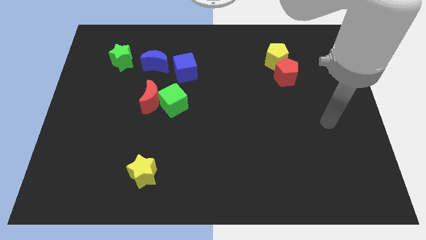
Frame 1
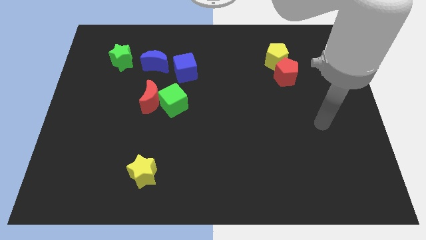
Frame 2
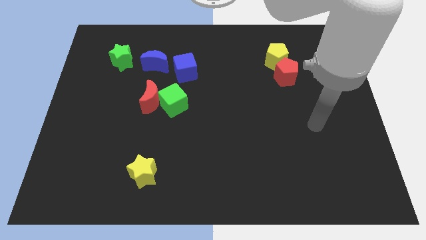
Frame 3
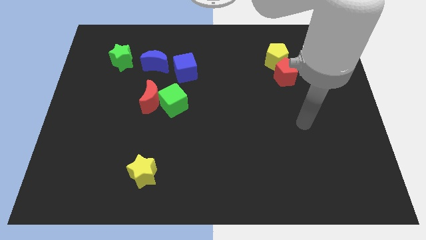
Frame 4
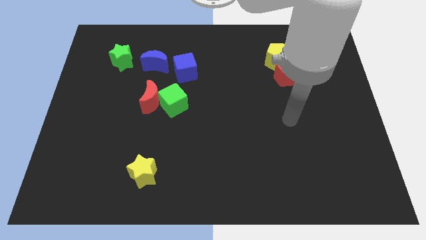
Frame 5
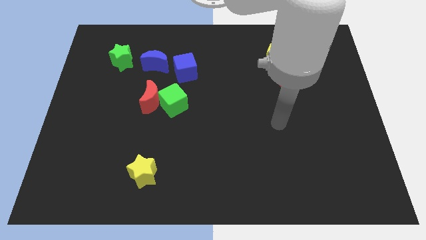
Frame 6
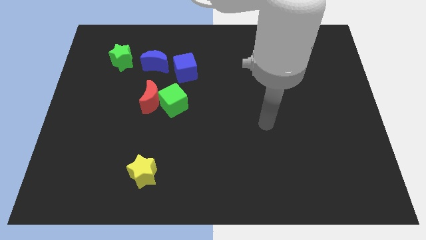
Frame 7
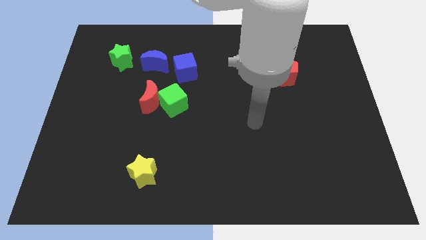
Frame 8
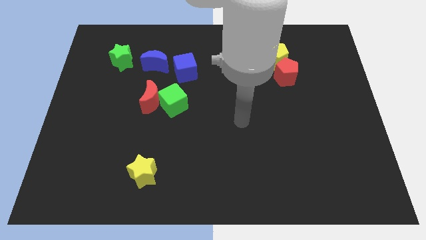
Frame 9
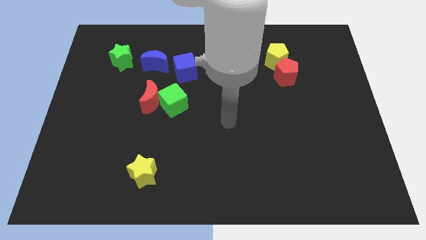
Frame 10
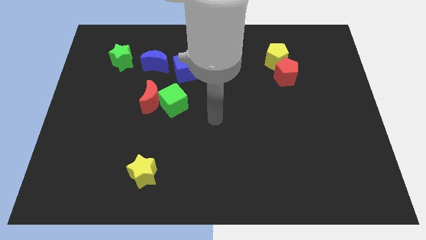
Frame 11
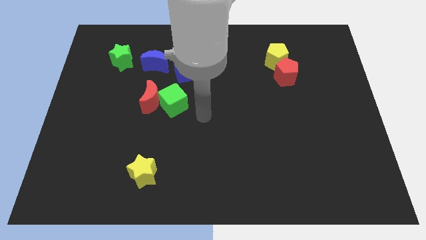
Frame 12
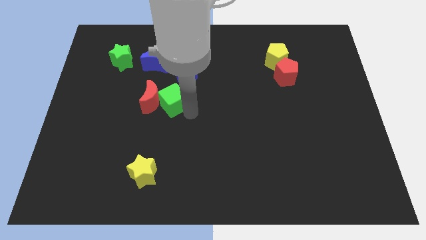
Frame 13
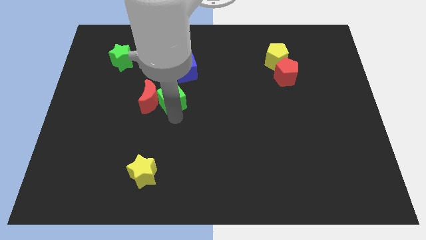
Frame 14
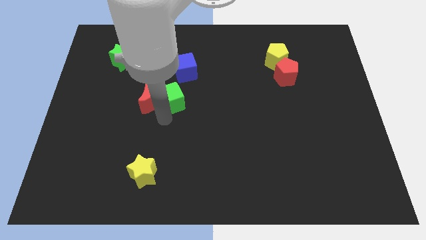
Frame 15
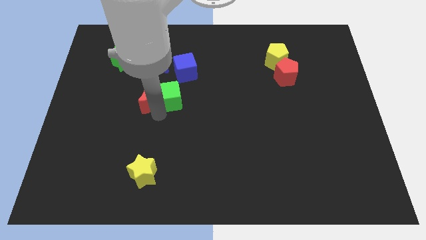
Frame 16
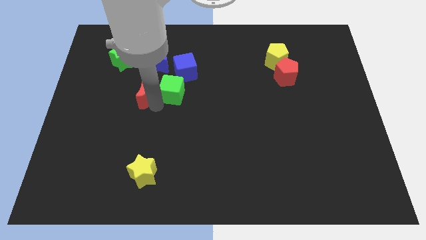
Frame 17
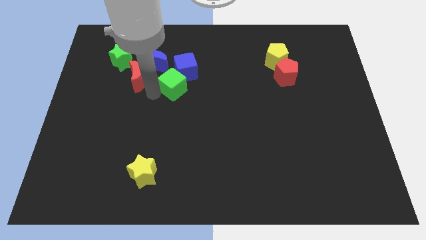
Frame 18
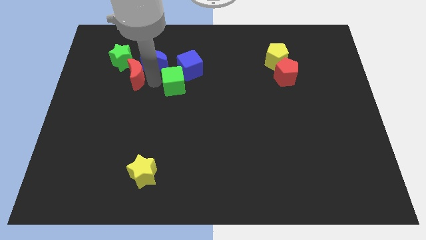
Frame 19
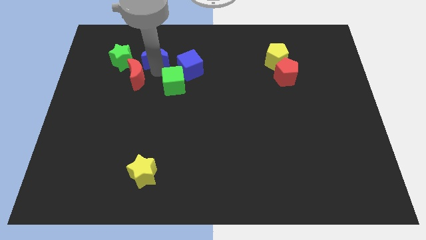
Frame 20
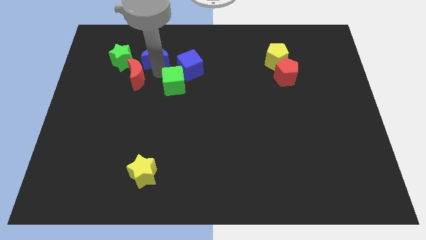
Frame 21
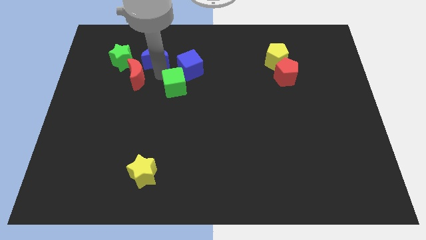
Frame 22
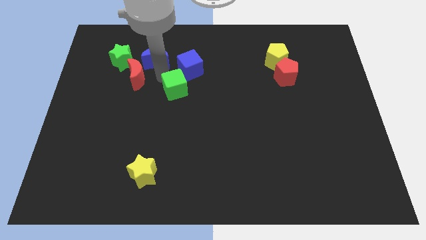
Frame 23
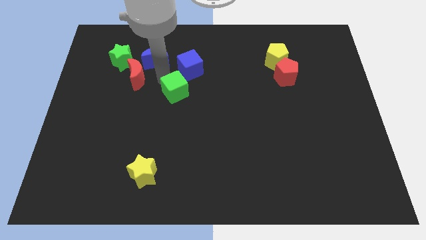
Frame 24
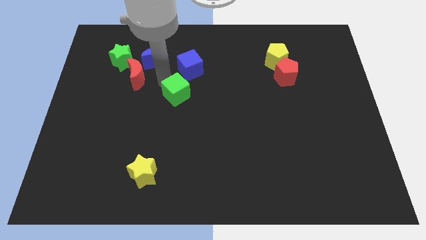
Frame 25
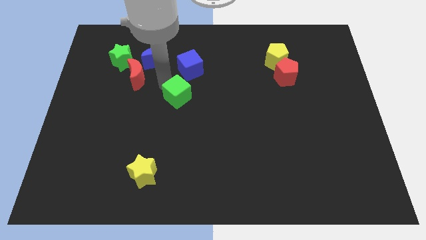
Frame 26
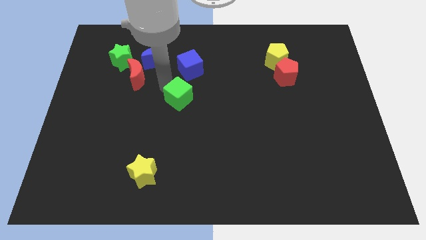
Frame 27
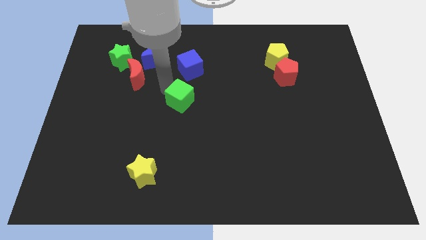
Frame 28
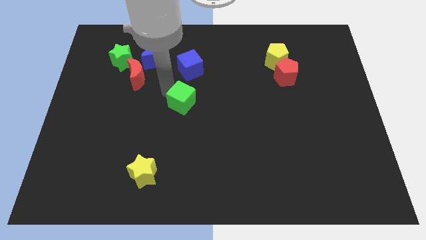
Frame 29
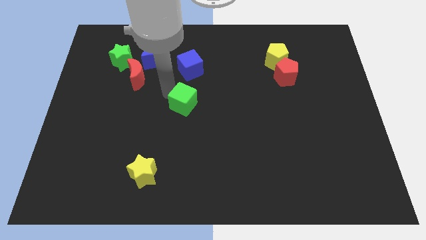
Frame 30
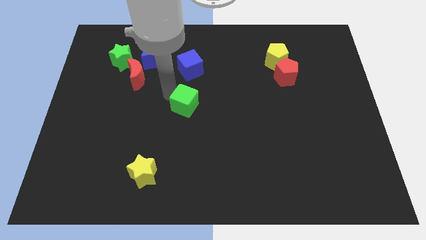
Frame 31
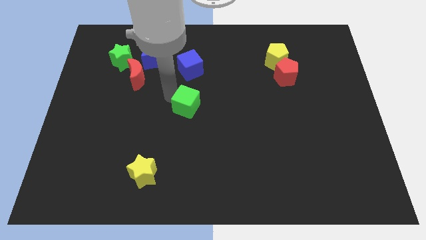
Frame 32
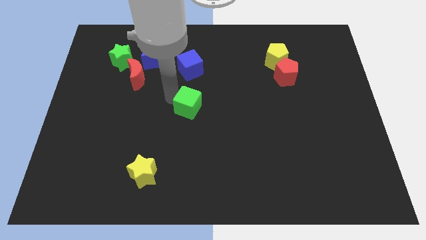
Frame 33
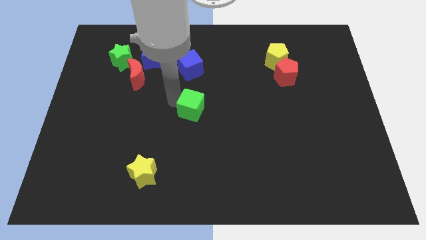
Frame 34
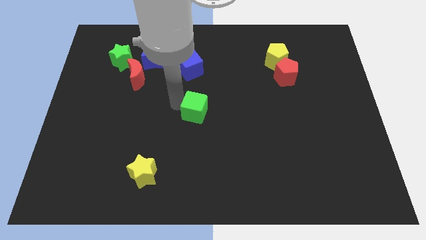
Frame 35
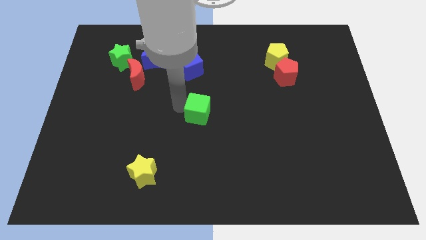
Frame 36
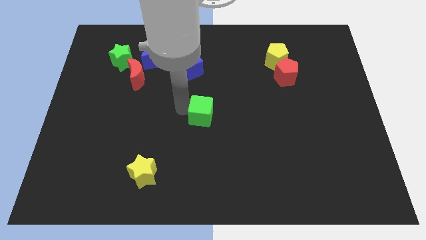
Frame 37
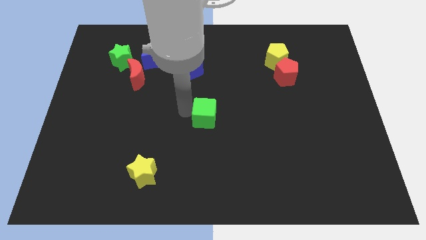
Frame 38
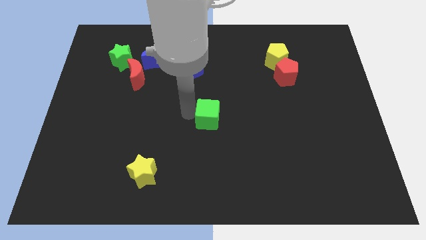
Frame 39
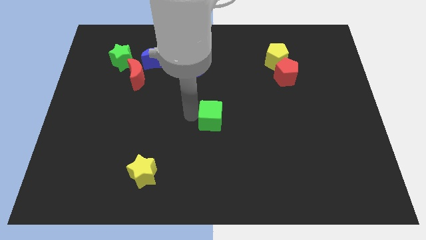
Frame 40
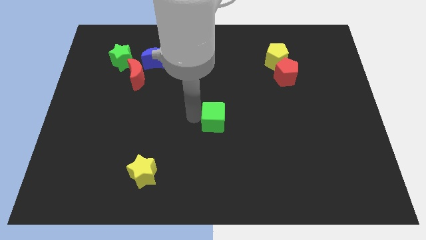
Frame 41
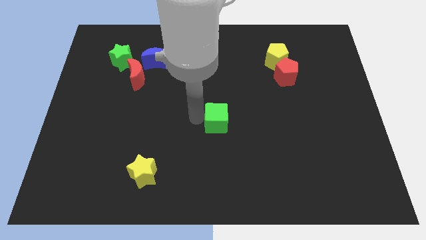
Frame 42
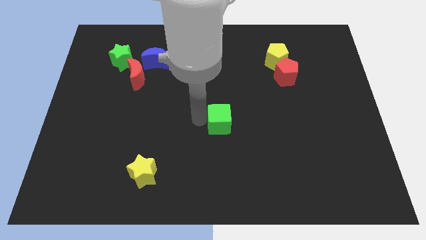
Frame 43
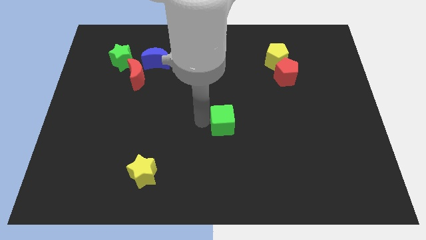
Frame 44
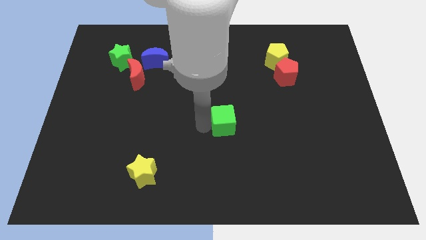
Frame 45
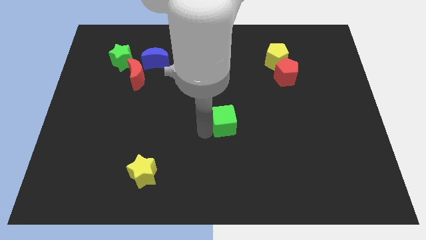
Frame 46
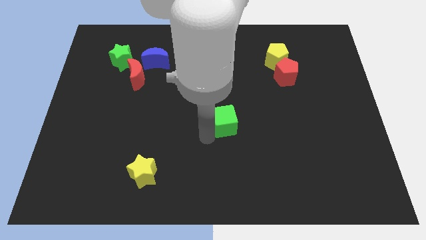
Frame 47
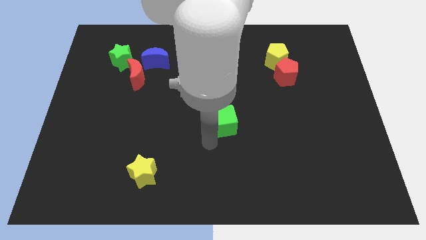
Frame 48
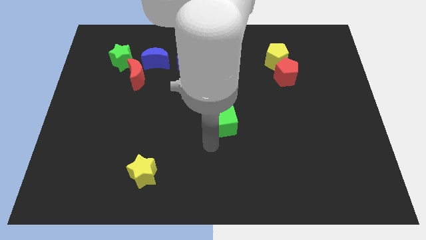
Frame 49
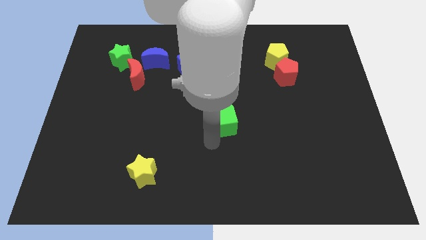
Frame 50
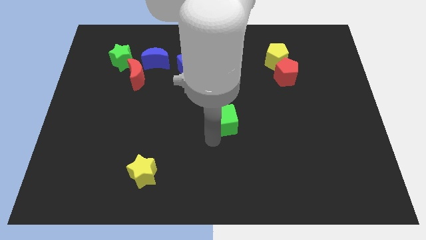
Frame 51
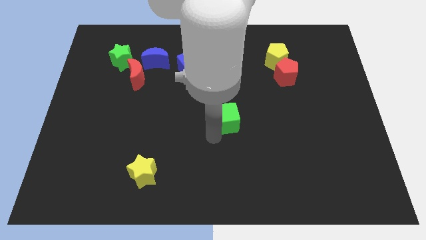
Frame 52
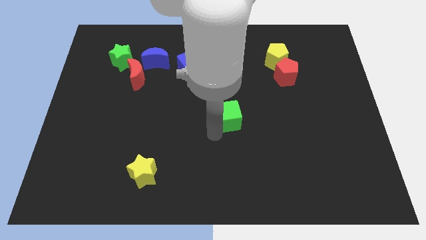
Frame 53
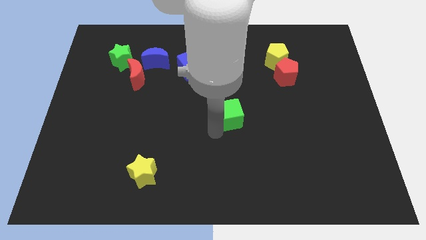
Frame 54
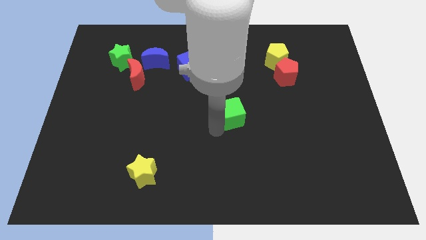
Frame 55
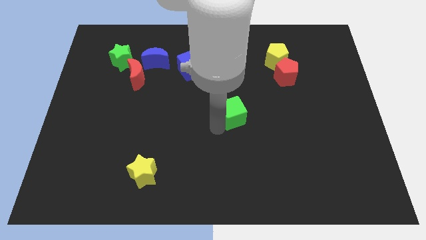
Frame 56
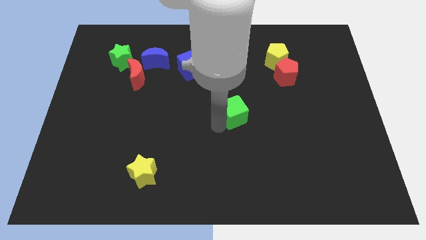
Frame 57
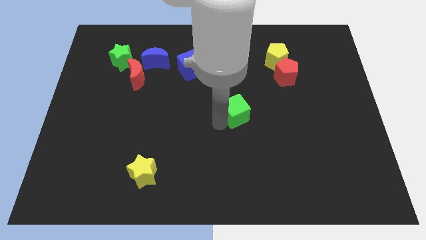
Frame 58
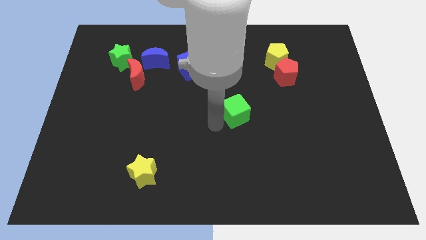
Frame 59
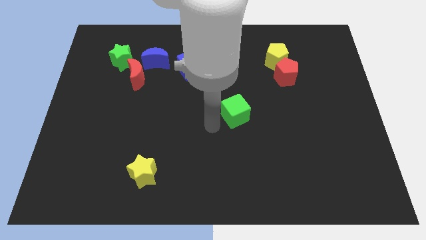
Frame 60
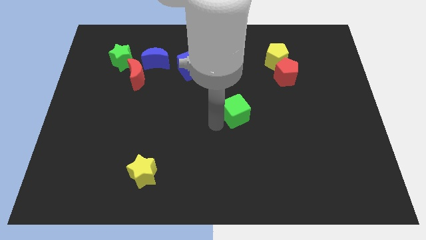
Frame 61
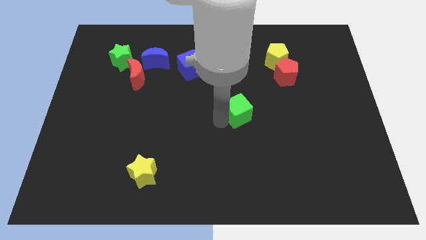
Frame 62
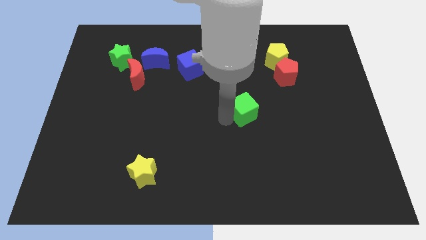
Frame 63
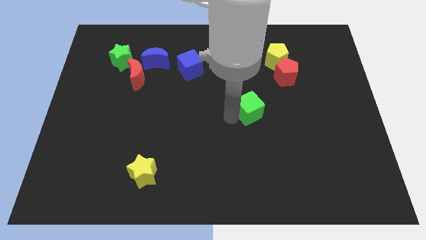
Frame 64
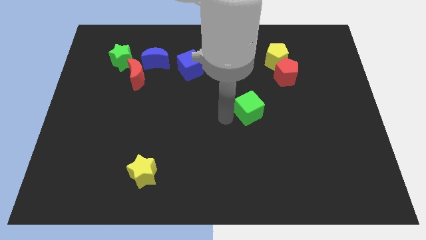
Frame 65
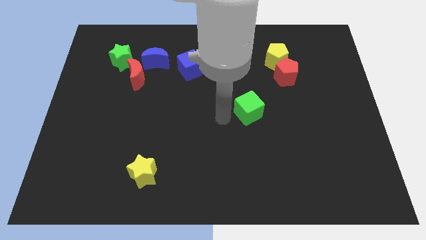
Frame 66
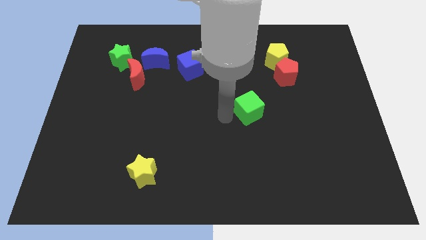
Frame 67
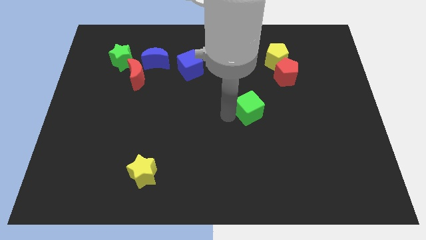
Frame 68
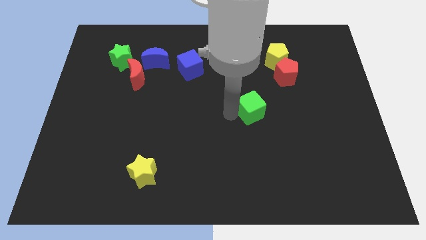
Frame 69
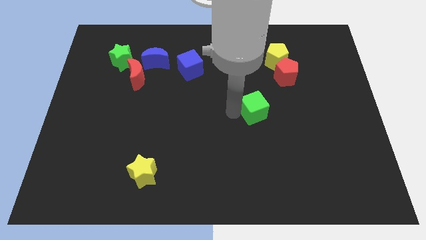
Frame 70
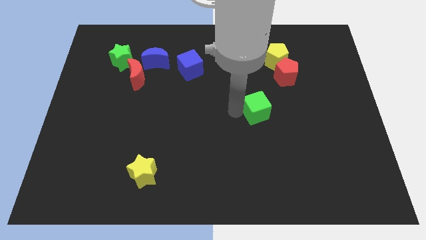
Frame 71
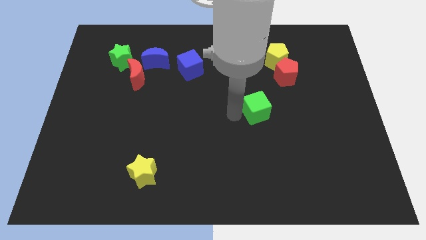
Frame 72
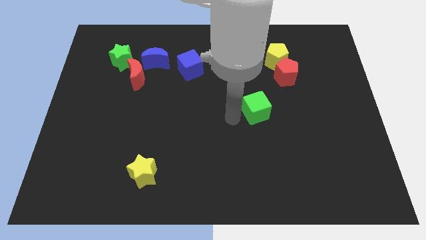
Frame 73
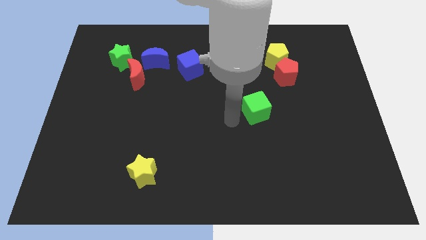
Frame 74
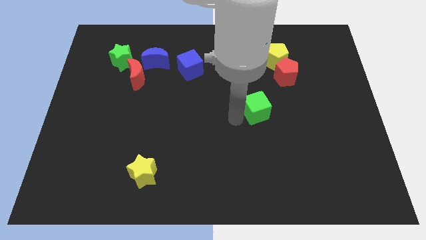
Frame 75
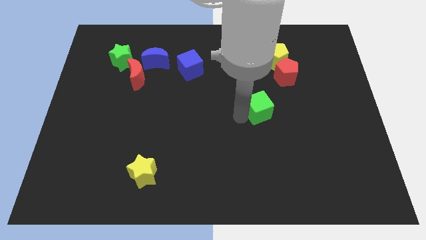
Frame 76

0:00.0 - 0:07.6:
slide the green cube to the right

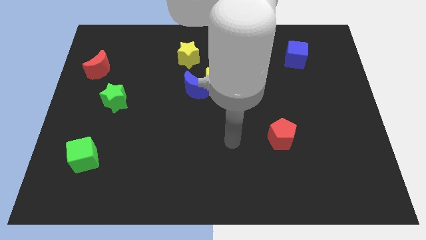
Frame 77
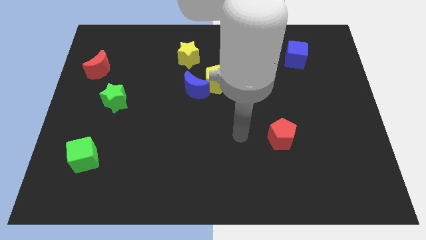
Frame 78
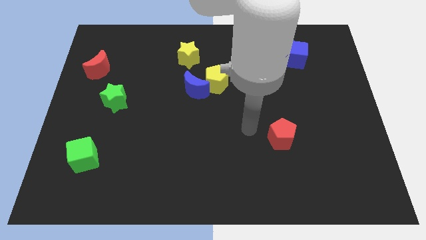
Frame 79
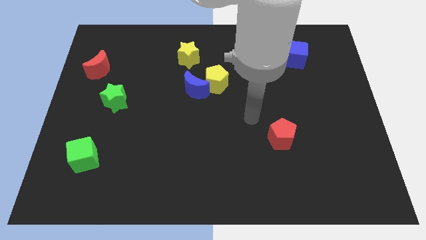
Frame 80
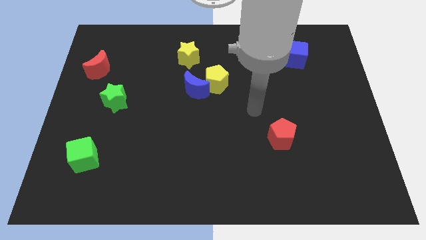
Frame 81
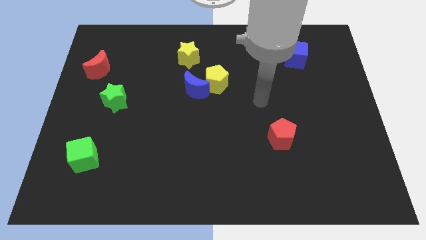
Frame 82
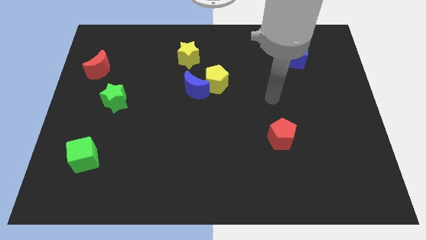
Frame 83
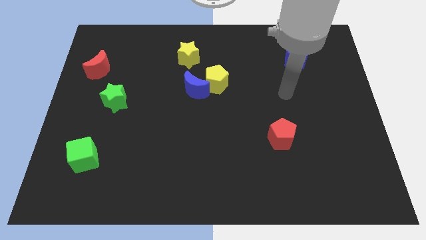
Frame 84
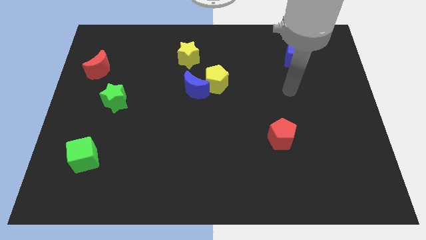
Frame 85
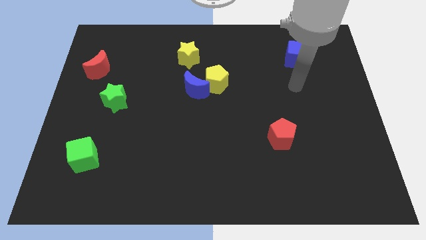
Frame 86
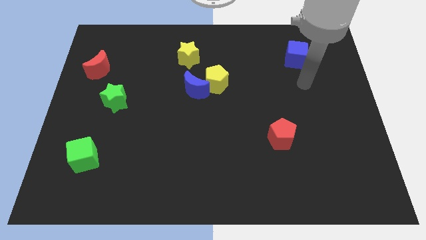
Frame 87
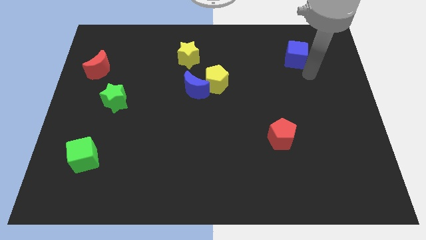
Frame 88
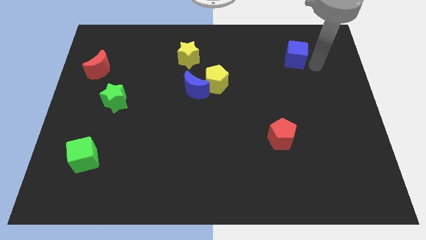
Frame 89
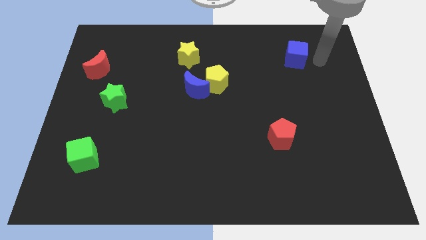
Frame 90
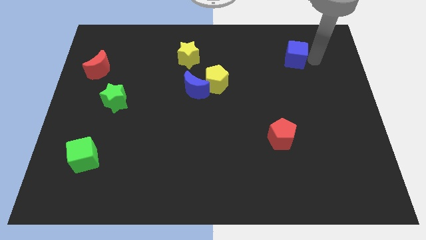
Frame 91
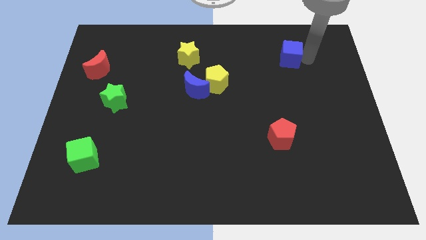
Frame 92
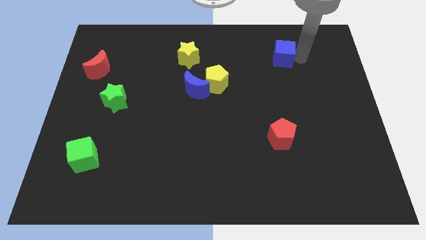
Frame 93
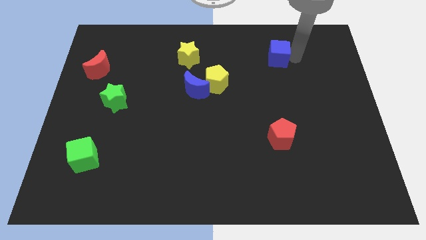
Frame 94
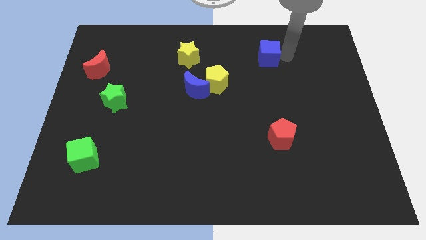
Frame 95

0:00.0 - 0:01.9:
push the blue cube left a little
